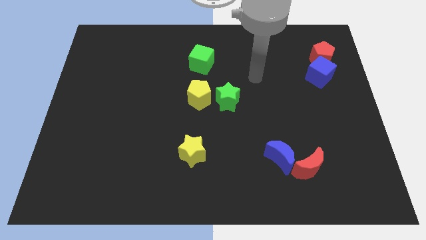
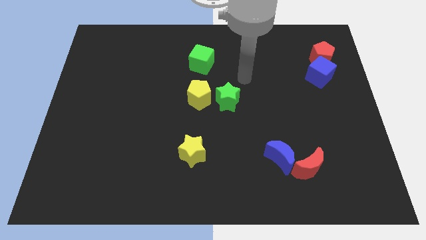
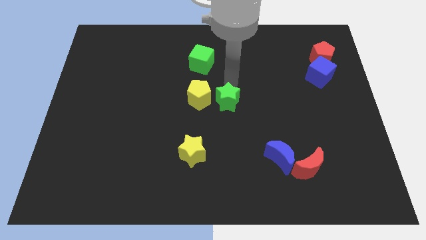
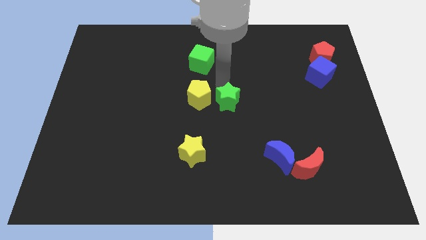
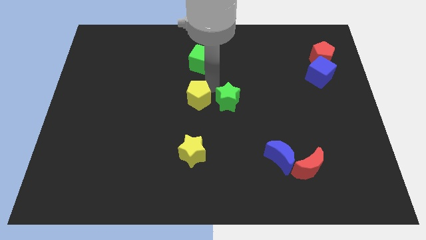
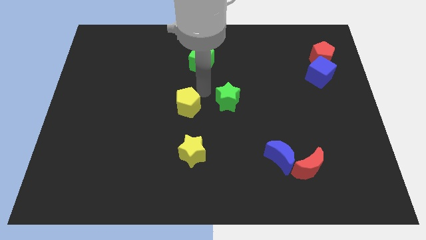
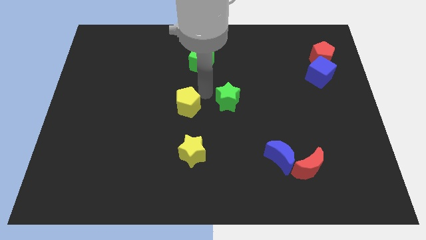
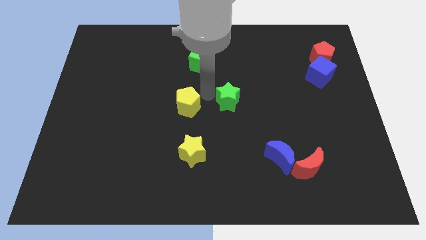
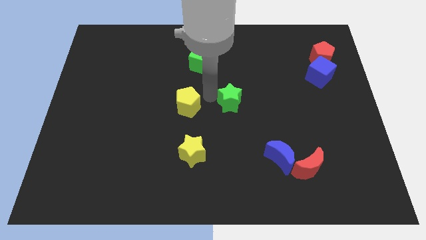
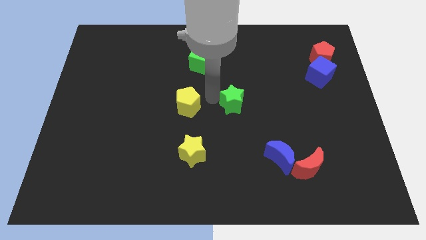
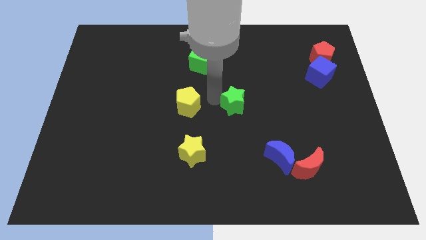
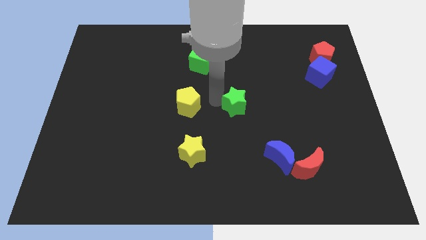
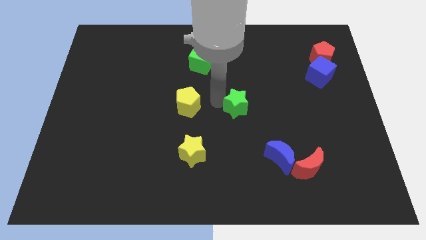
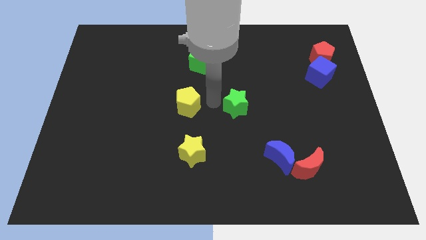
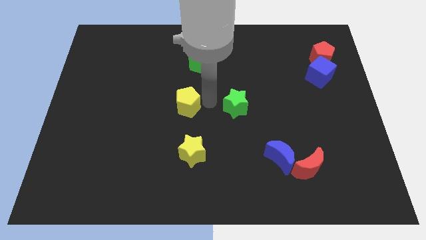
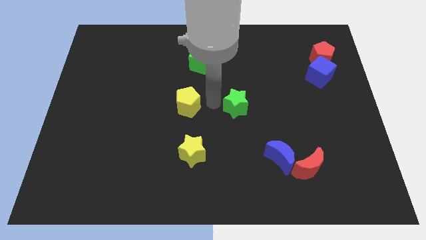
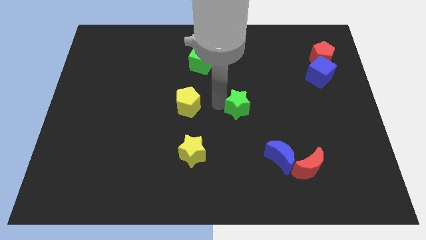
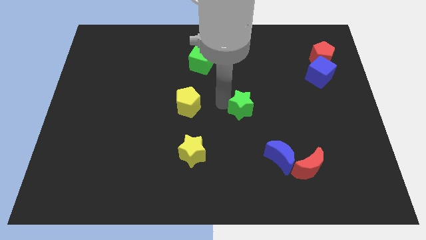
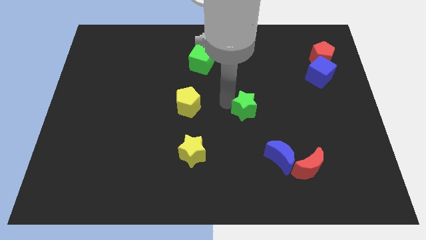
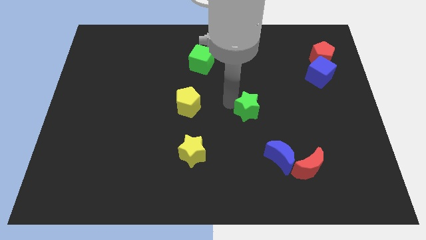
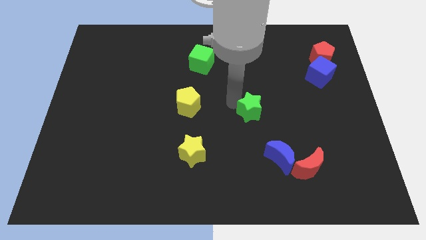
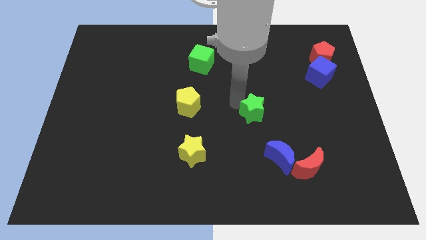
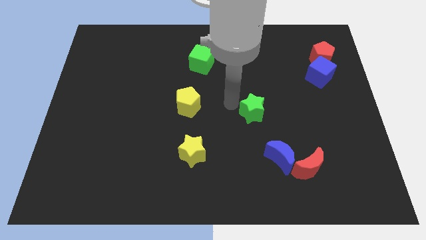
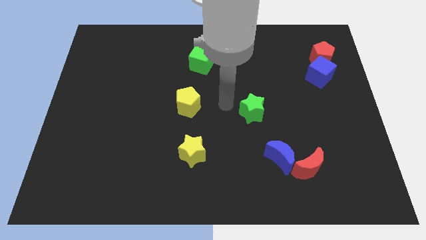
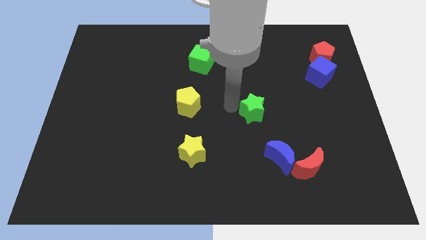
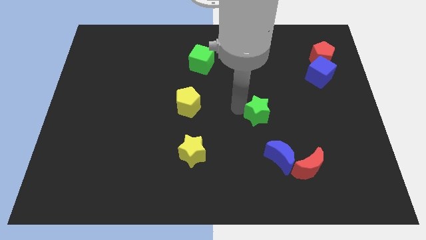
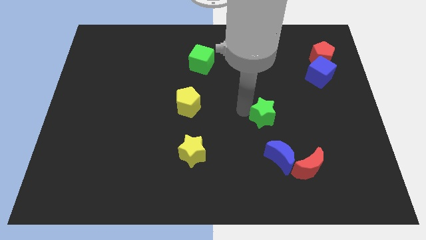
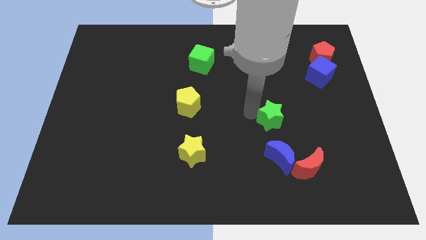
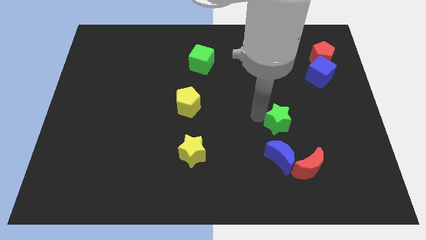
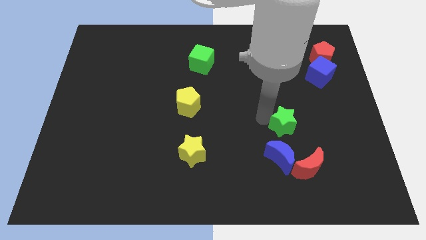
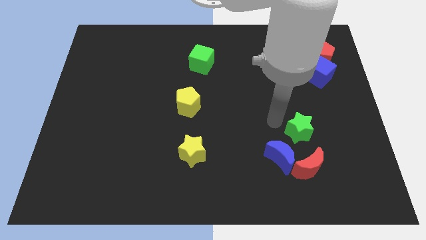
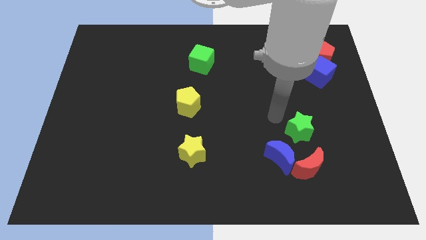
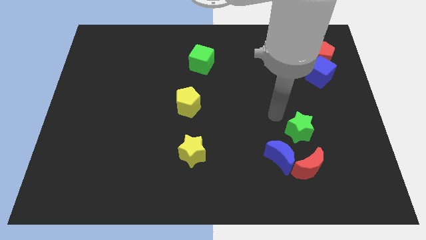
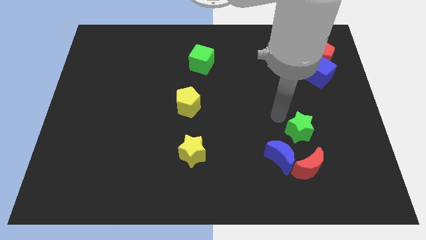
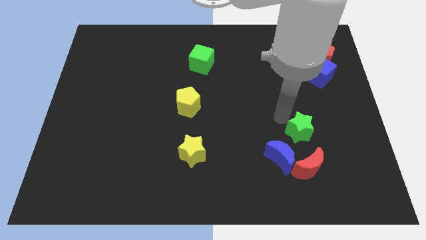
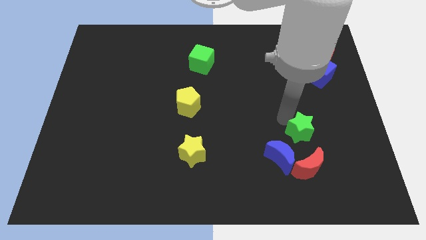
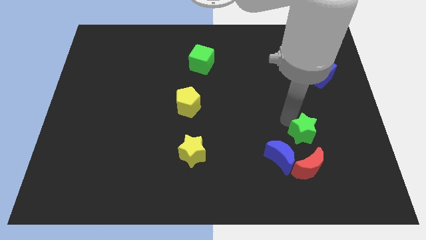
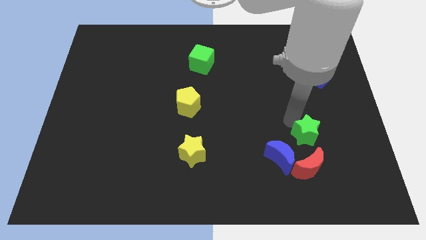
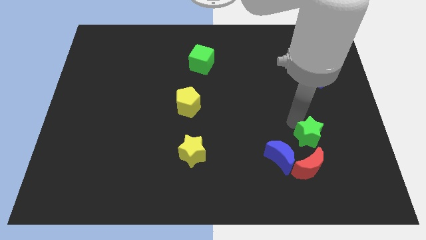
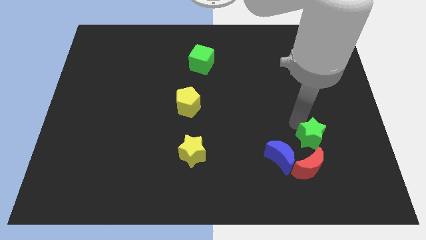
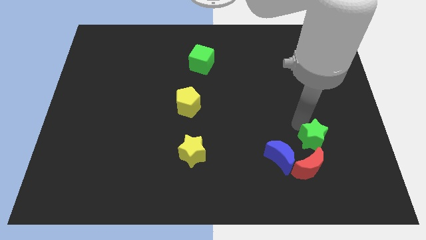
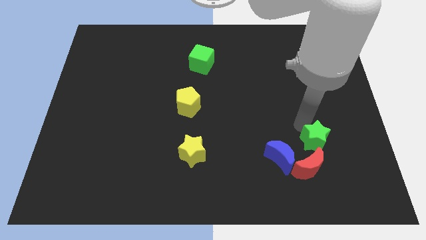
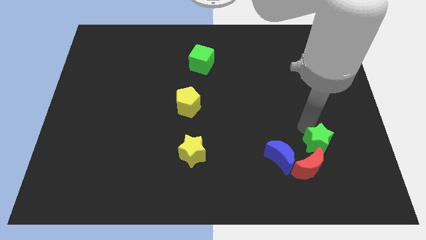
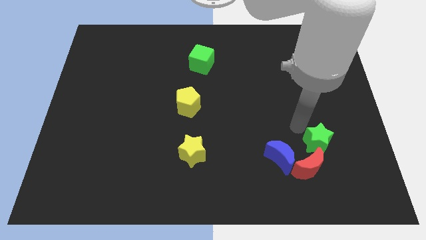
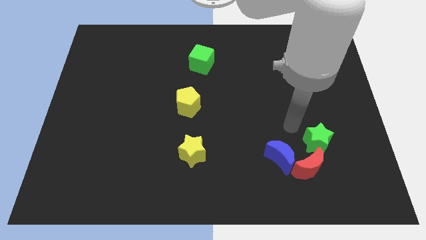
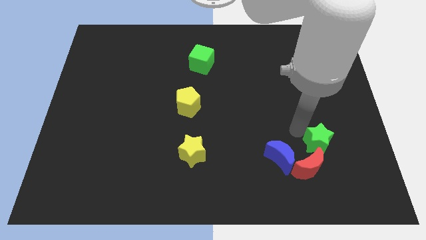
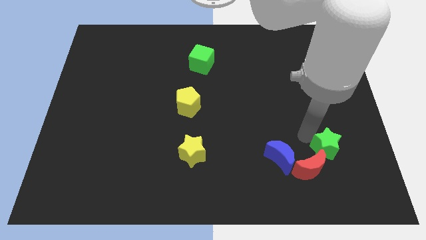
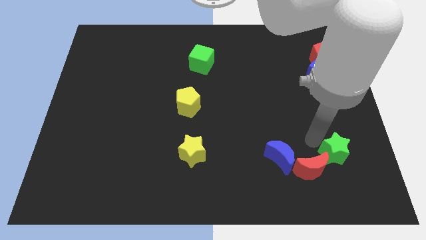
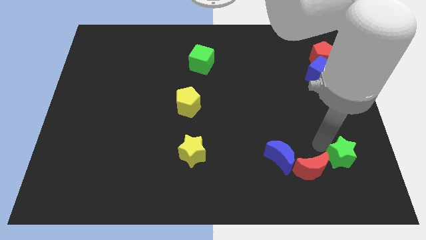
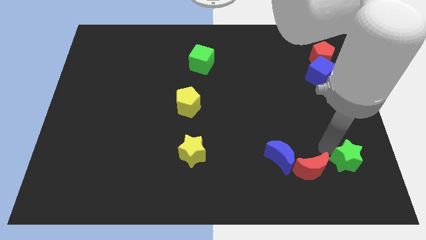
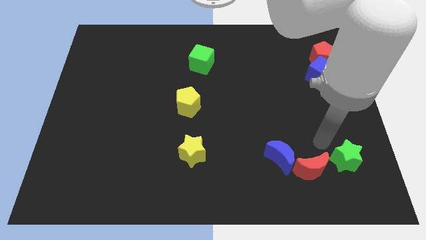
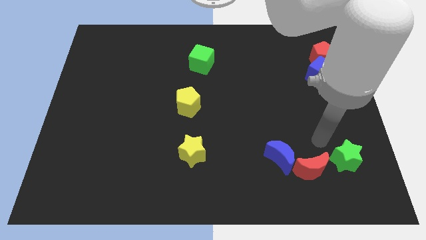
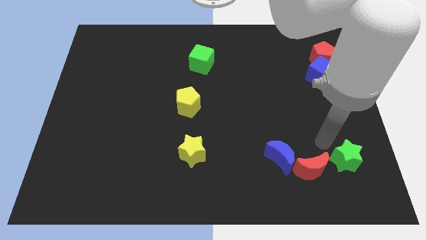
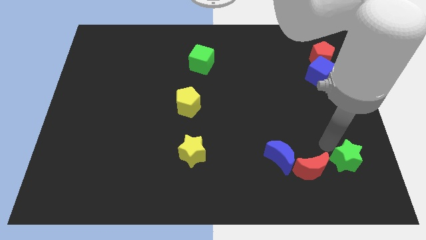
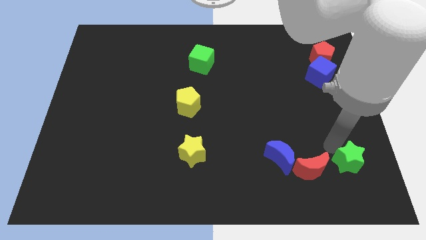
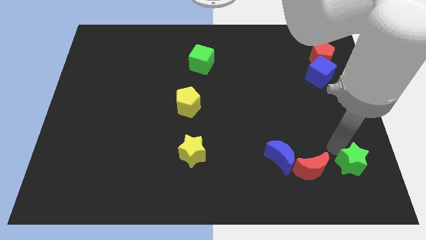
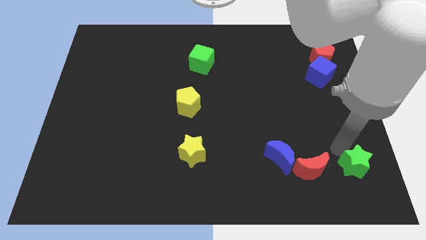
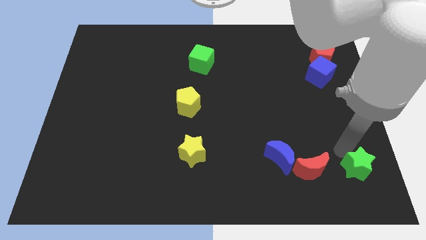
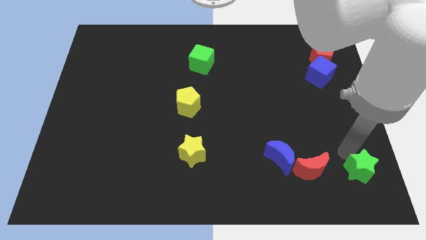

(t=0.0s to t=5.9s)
slide the green star to the lower right corner

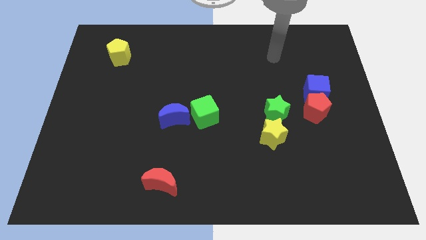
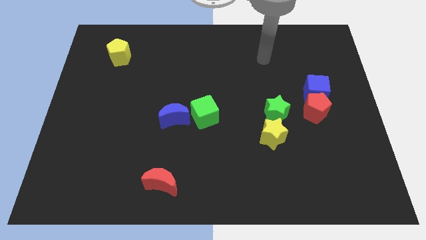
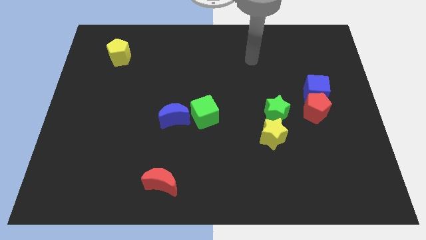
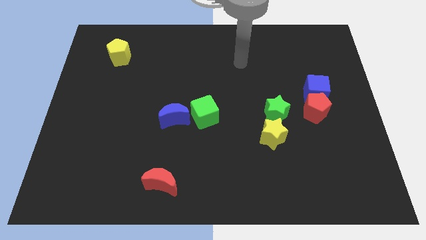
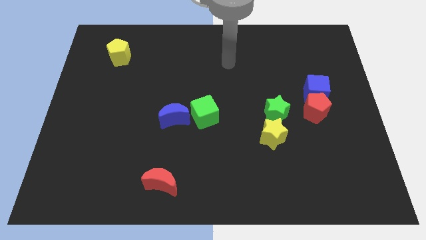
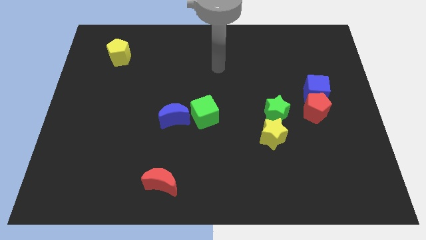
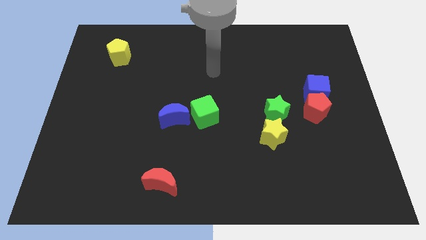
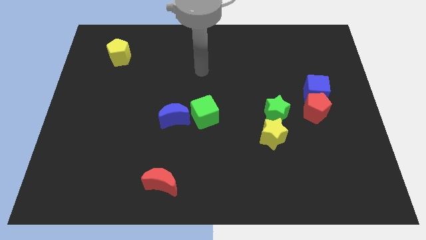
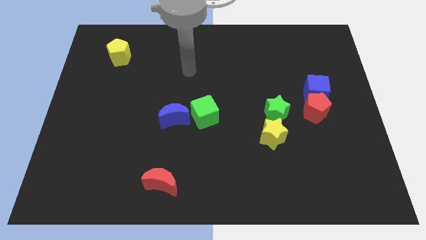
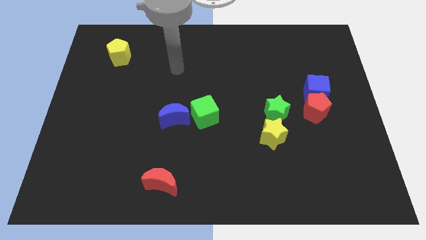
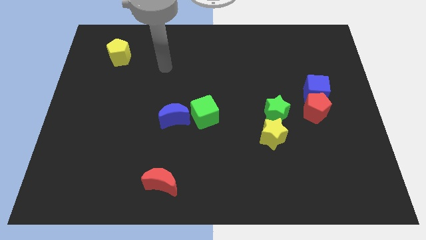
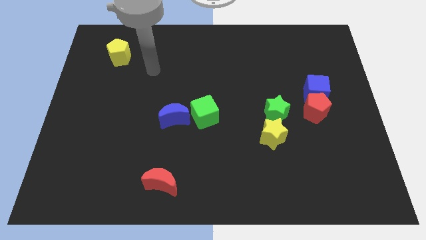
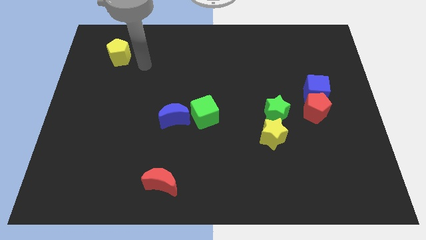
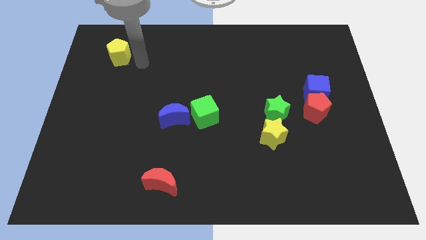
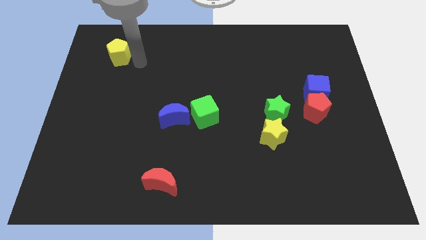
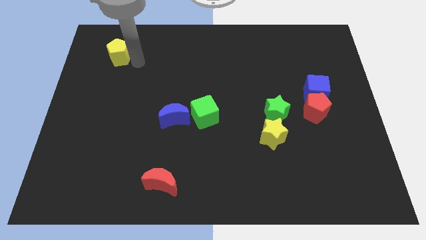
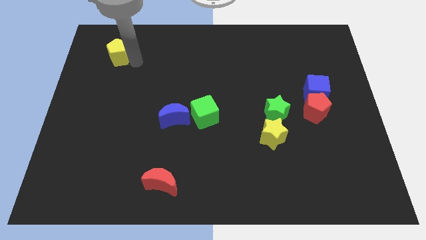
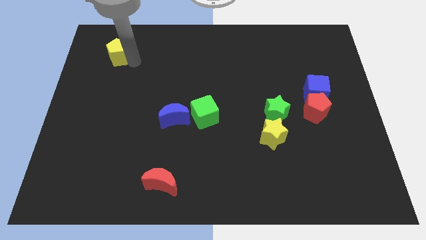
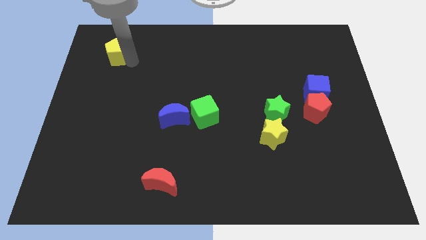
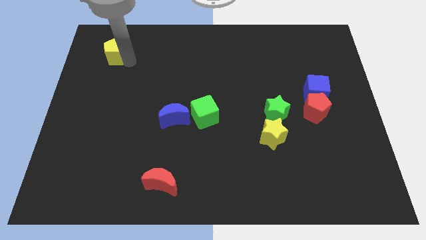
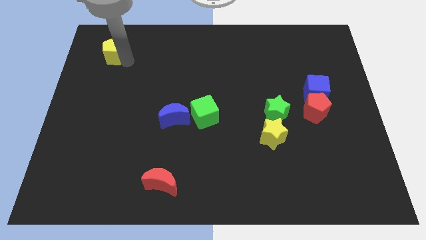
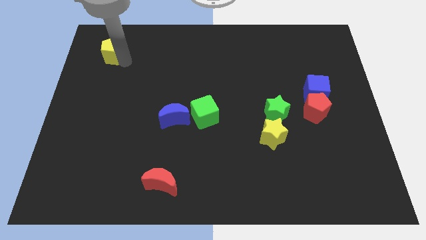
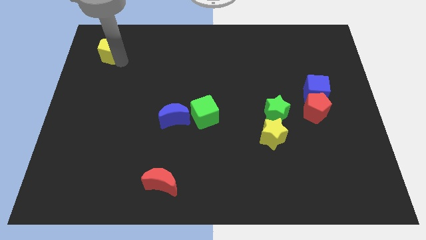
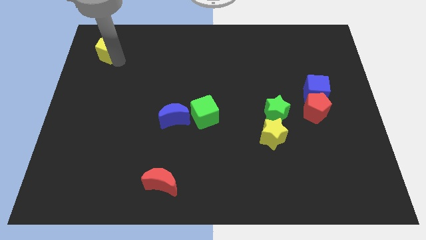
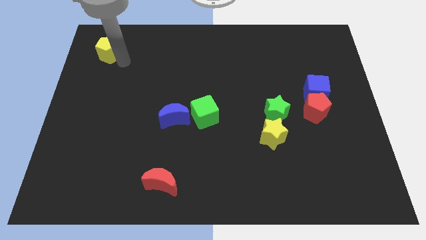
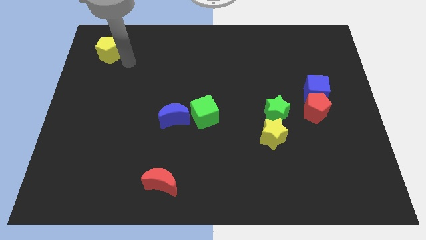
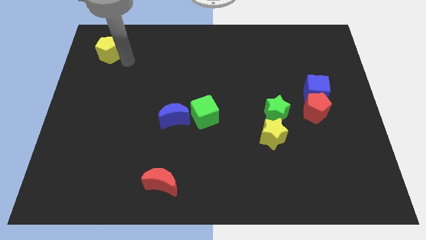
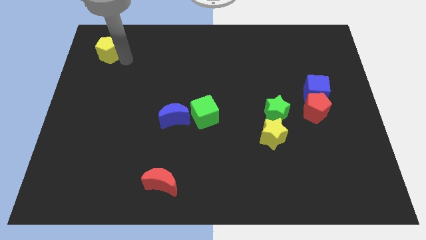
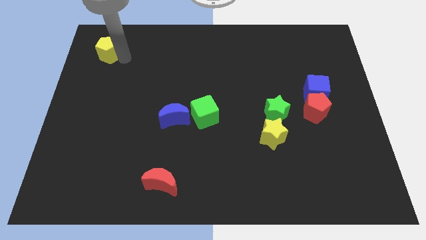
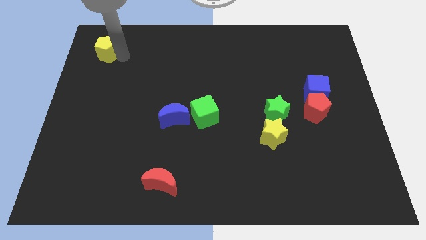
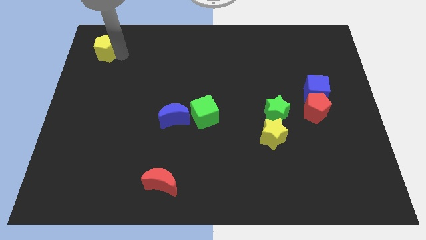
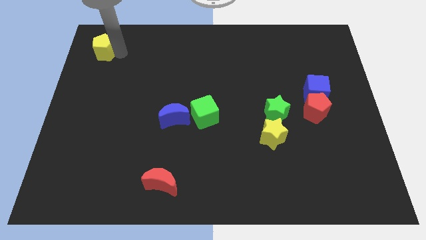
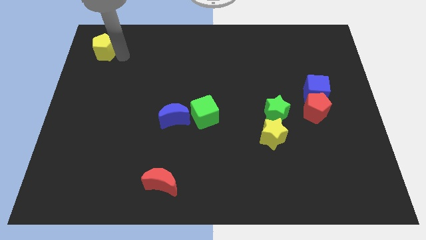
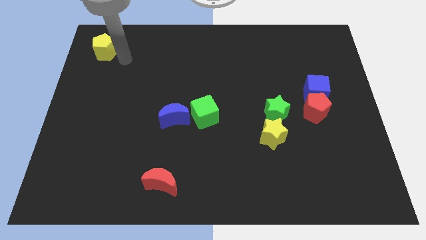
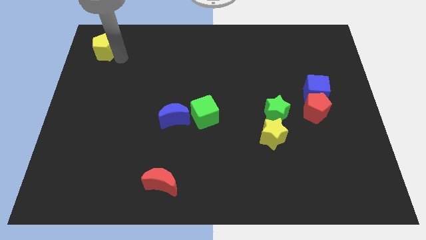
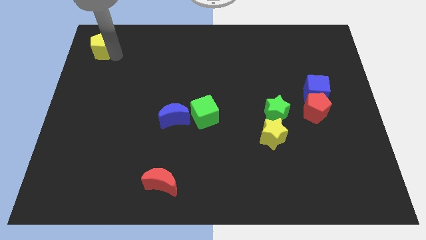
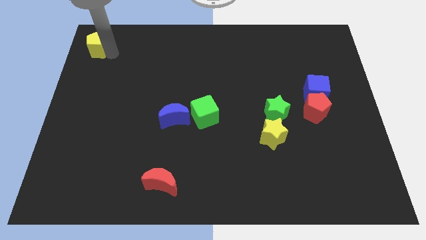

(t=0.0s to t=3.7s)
move the yellow pentagon to the top left
